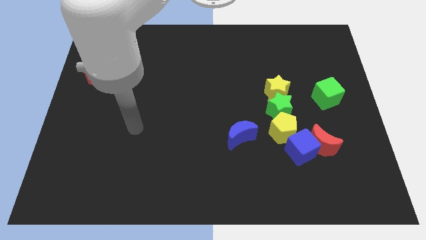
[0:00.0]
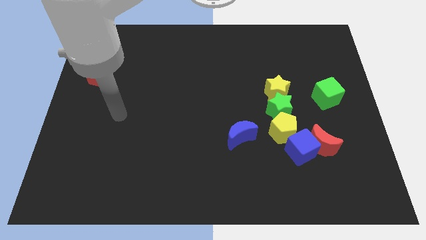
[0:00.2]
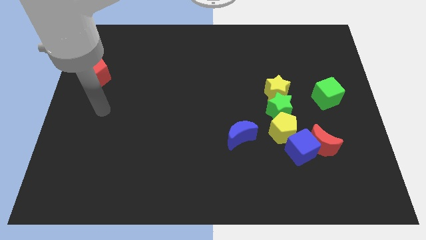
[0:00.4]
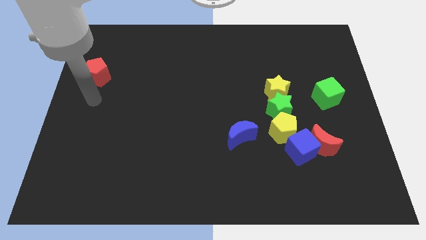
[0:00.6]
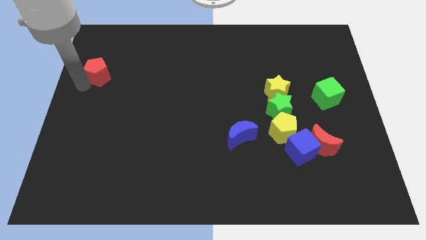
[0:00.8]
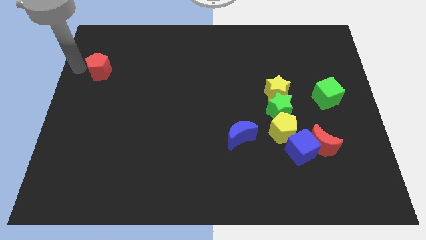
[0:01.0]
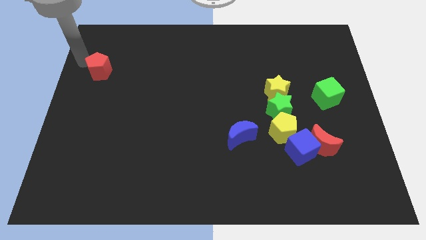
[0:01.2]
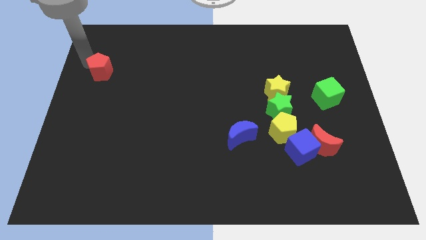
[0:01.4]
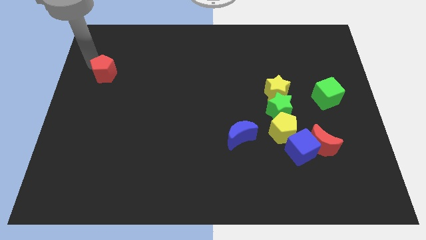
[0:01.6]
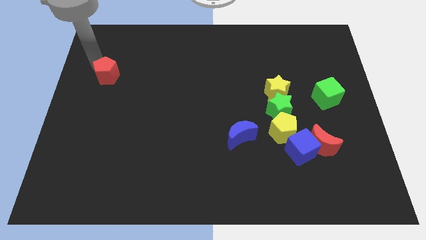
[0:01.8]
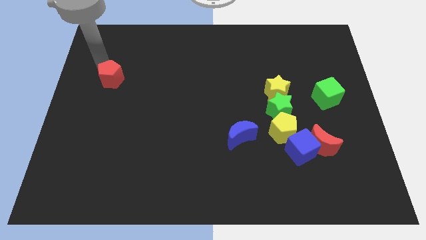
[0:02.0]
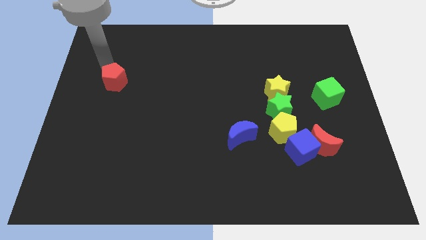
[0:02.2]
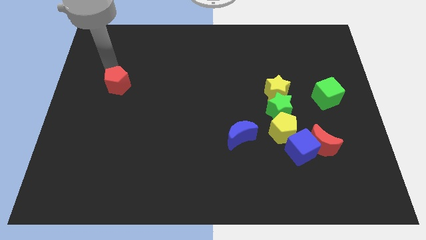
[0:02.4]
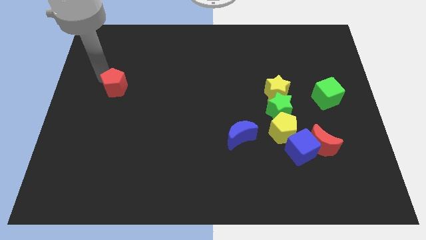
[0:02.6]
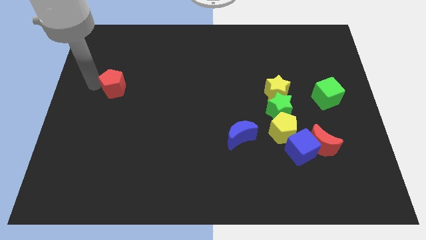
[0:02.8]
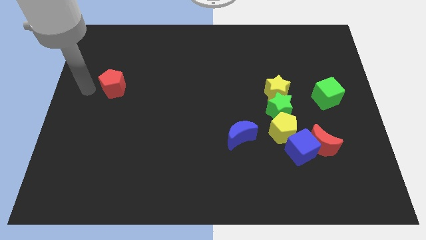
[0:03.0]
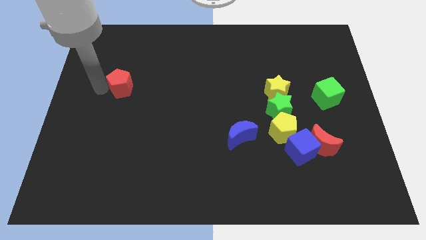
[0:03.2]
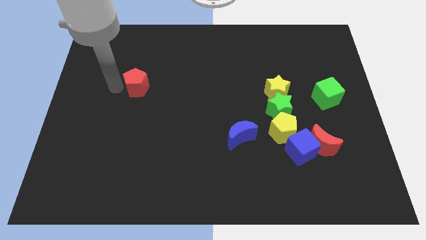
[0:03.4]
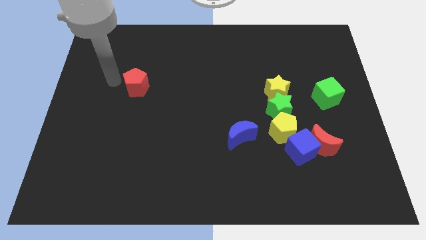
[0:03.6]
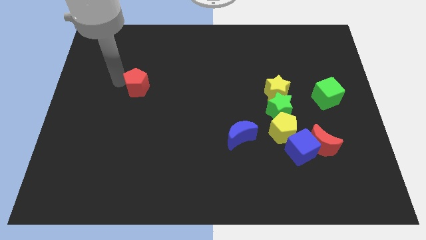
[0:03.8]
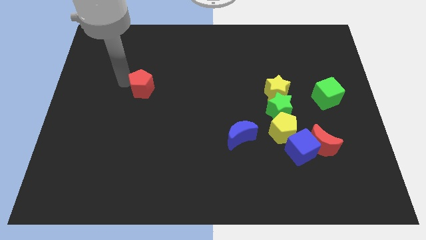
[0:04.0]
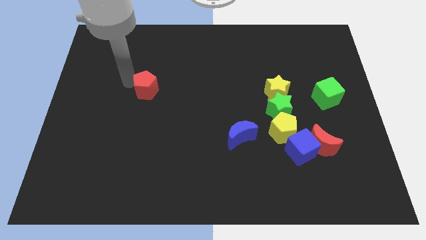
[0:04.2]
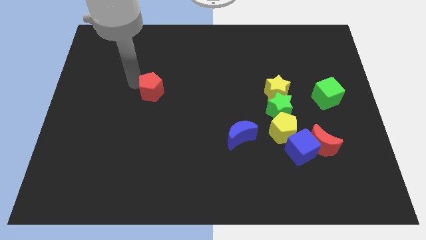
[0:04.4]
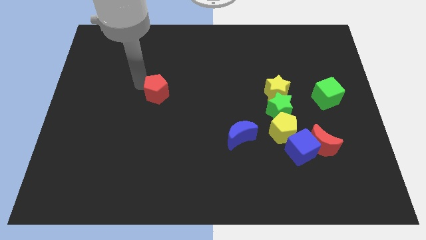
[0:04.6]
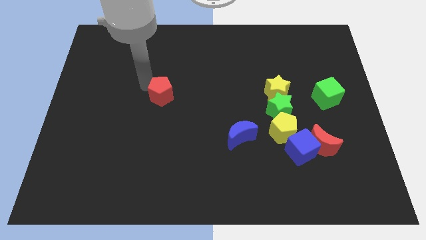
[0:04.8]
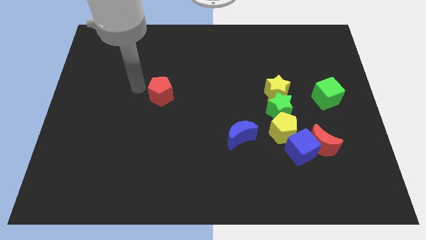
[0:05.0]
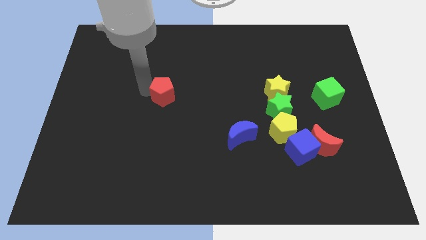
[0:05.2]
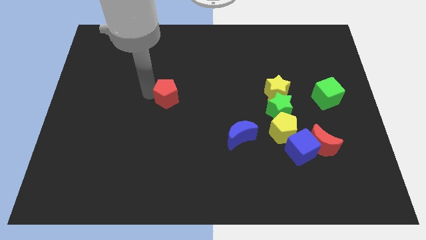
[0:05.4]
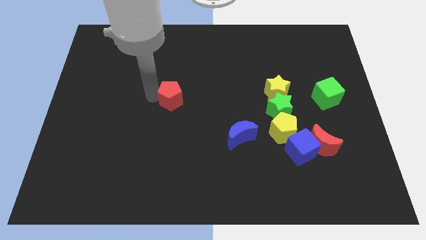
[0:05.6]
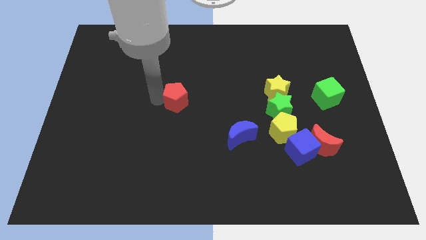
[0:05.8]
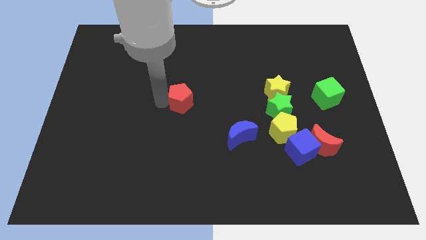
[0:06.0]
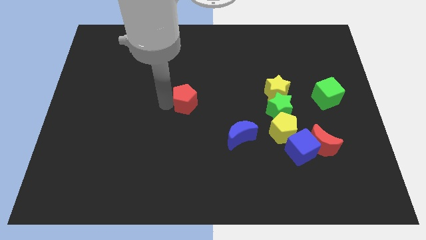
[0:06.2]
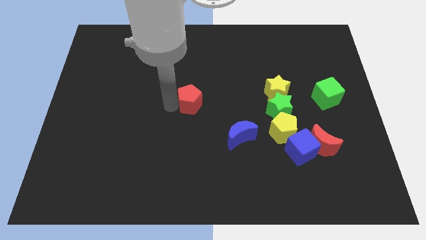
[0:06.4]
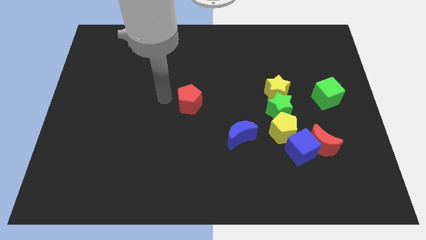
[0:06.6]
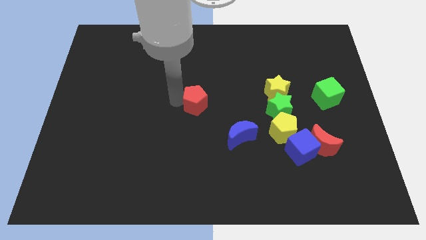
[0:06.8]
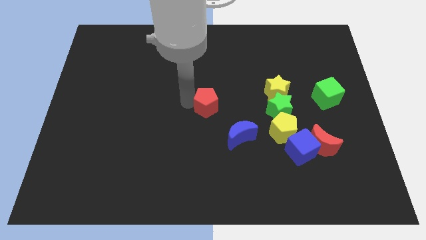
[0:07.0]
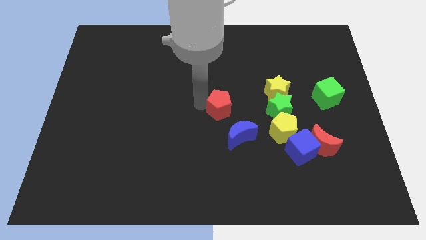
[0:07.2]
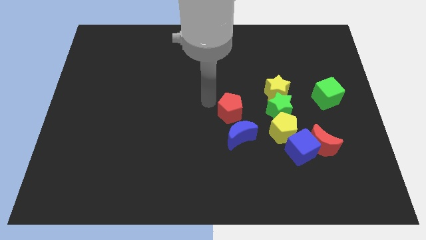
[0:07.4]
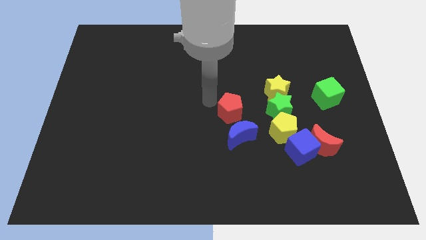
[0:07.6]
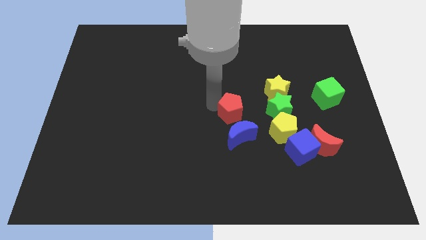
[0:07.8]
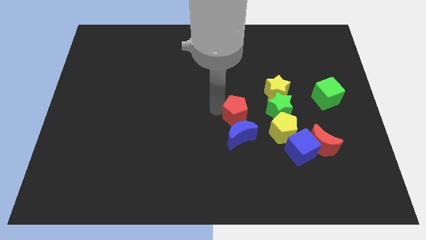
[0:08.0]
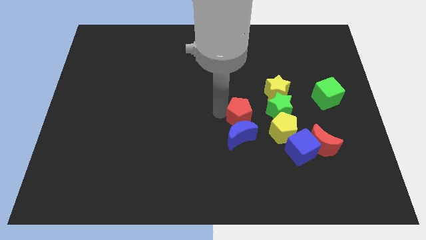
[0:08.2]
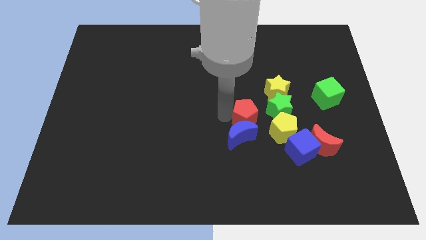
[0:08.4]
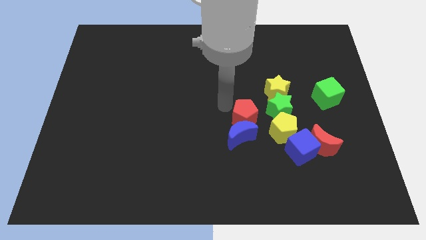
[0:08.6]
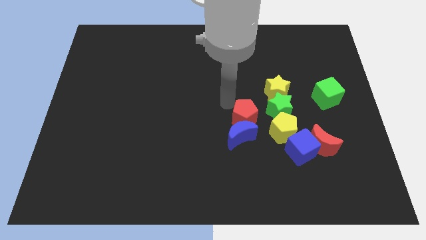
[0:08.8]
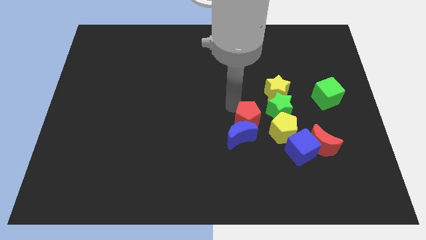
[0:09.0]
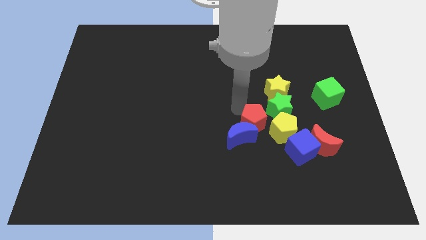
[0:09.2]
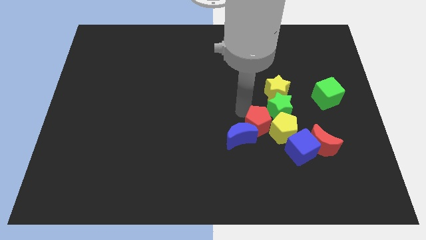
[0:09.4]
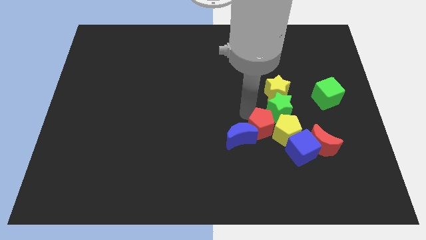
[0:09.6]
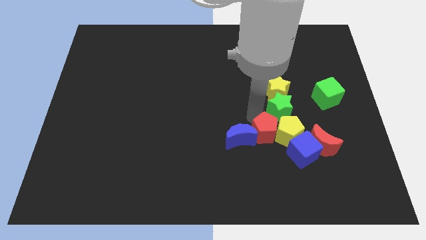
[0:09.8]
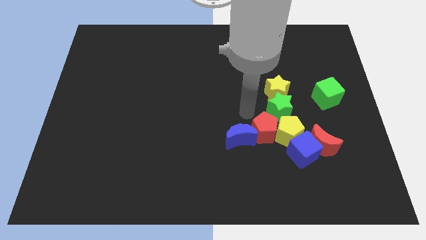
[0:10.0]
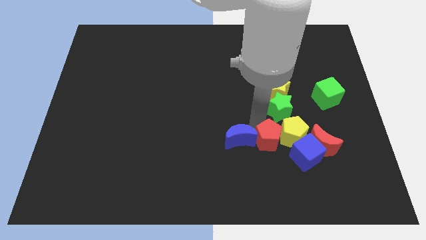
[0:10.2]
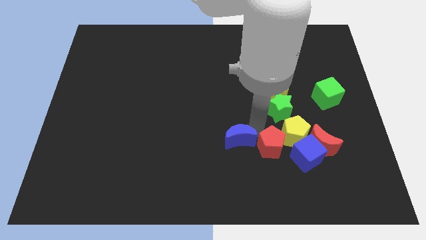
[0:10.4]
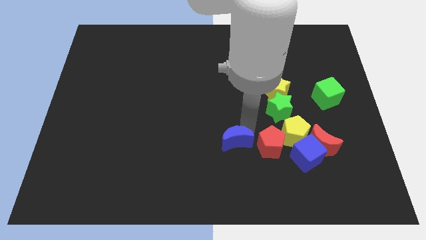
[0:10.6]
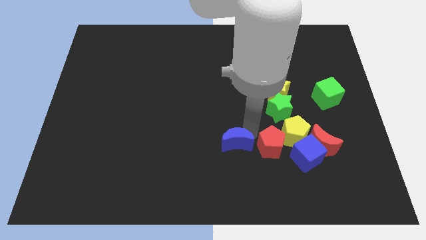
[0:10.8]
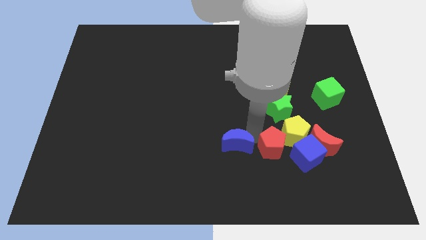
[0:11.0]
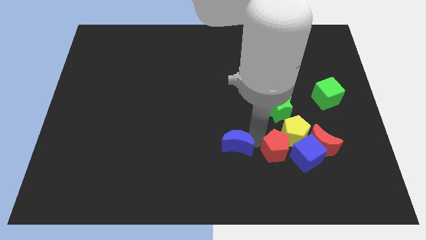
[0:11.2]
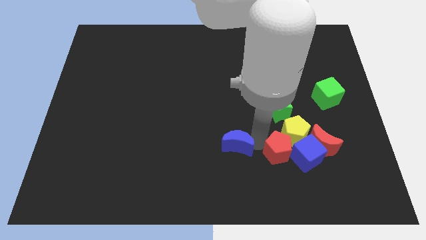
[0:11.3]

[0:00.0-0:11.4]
move the red pentagon next to the blue cube

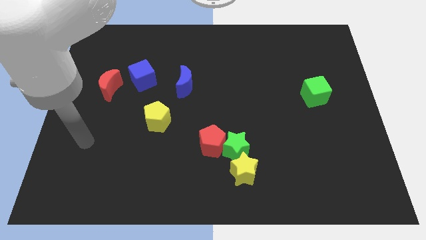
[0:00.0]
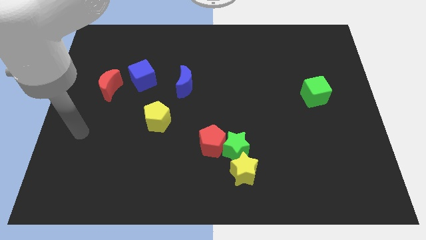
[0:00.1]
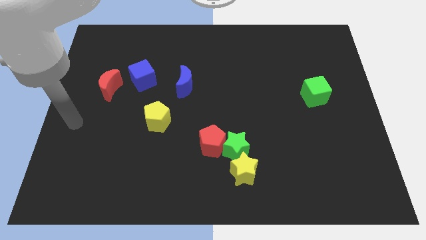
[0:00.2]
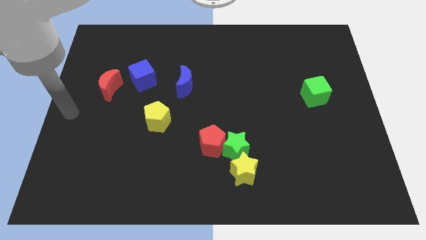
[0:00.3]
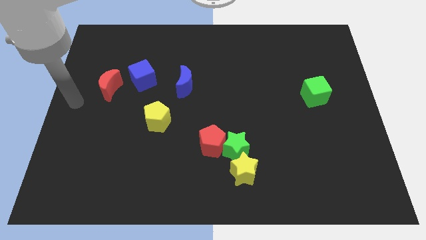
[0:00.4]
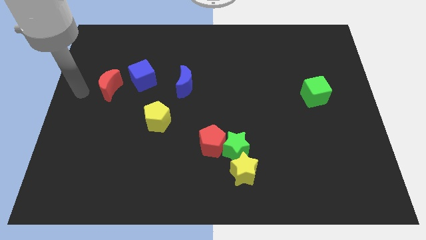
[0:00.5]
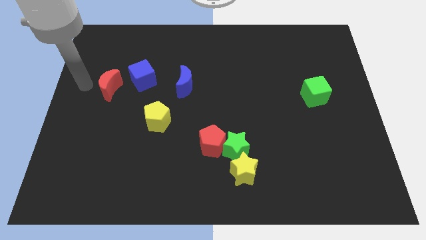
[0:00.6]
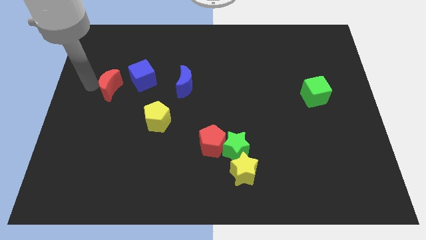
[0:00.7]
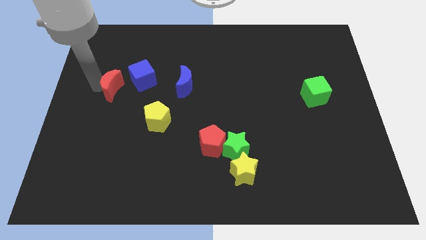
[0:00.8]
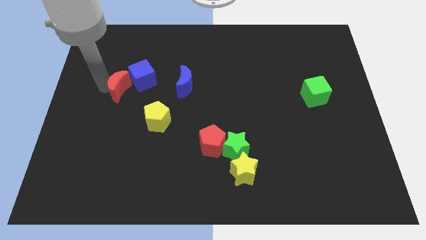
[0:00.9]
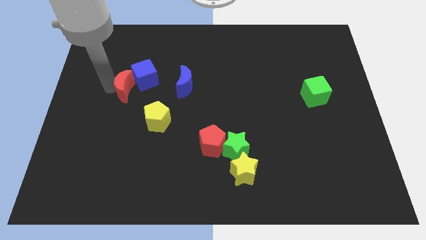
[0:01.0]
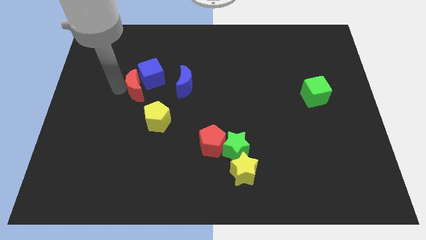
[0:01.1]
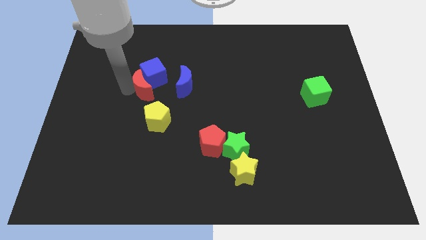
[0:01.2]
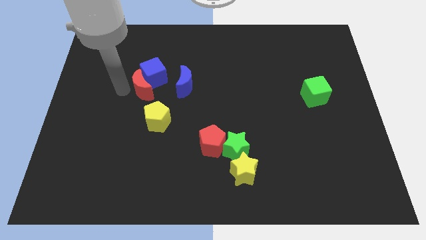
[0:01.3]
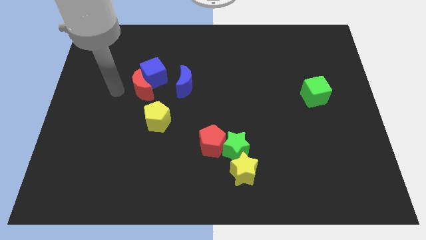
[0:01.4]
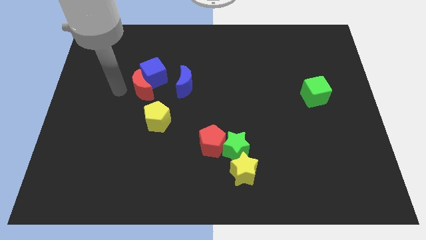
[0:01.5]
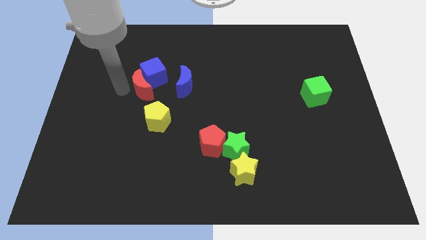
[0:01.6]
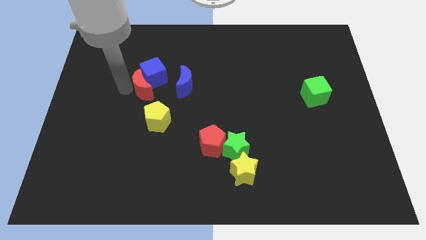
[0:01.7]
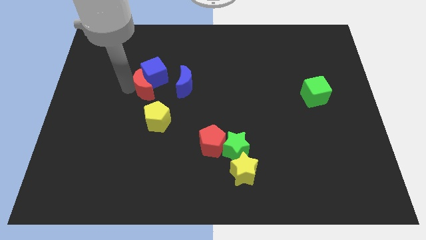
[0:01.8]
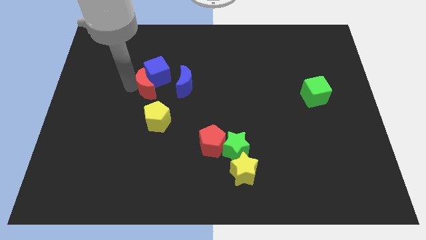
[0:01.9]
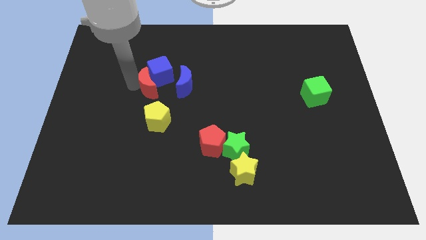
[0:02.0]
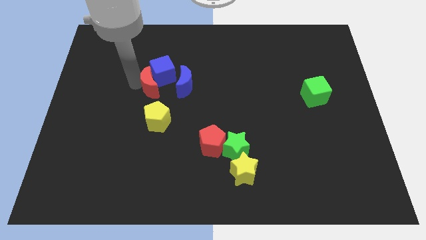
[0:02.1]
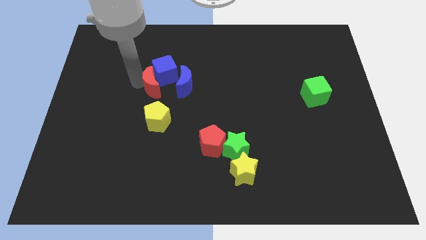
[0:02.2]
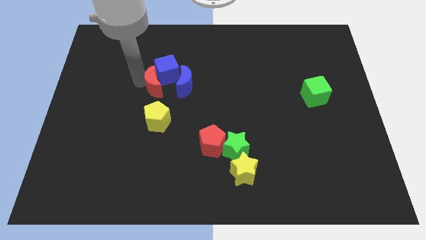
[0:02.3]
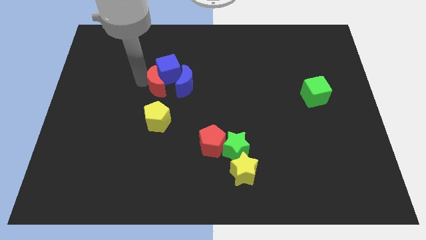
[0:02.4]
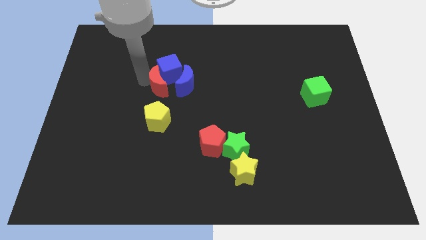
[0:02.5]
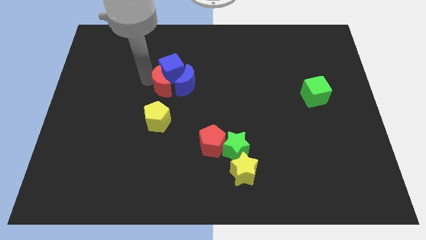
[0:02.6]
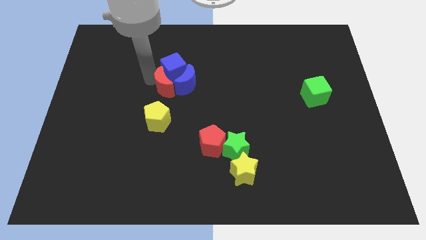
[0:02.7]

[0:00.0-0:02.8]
slide the red moon close to the blue moon
